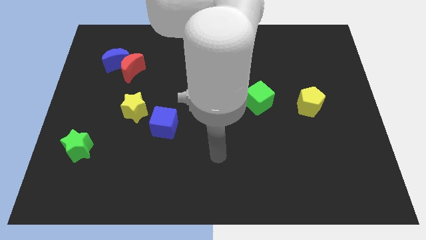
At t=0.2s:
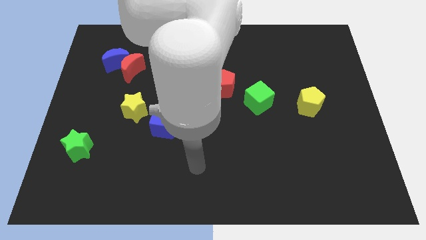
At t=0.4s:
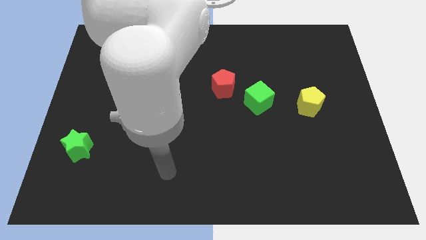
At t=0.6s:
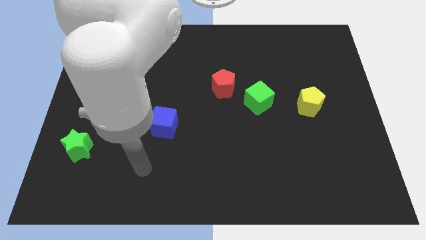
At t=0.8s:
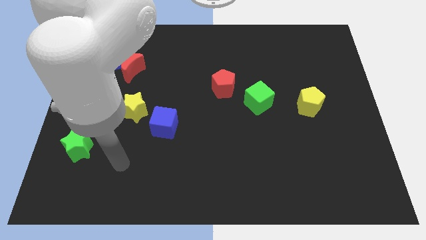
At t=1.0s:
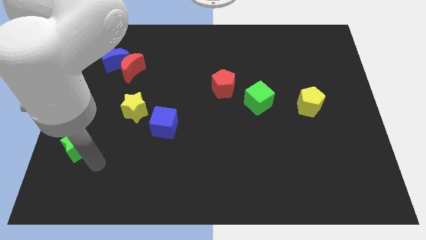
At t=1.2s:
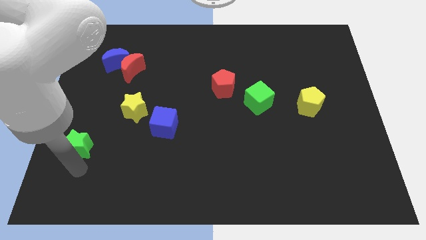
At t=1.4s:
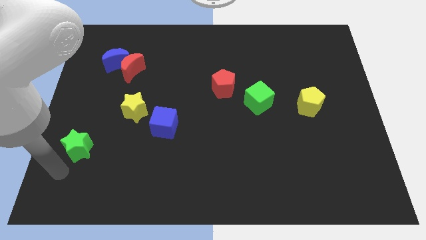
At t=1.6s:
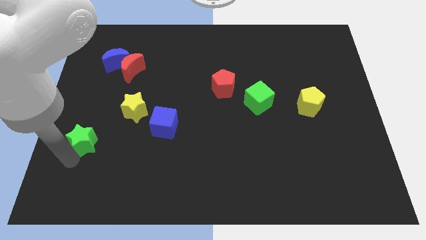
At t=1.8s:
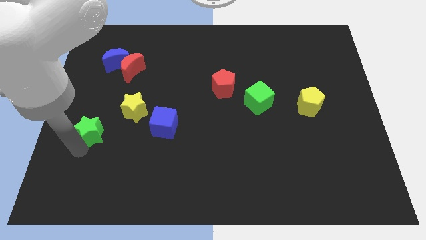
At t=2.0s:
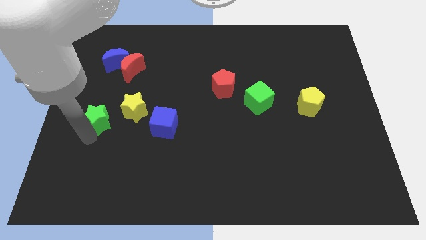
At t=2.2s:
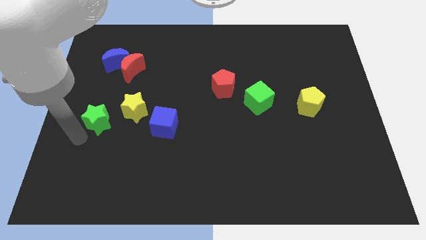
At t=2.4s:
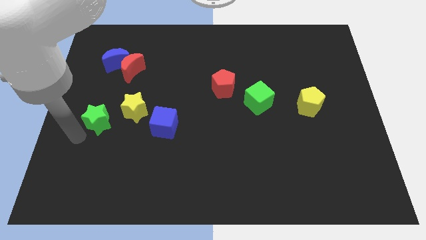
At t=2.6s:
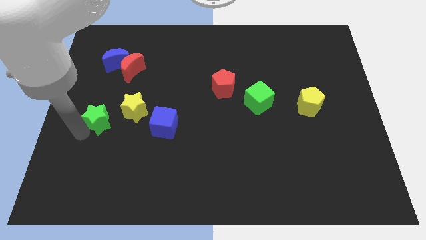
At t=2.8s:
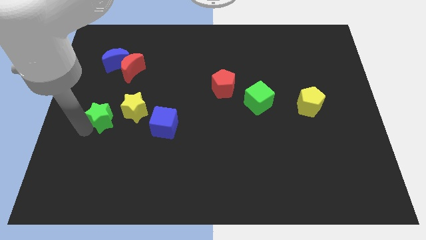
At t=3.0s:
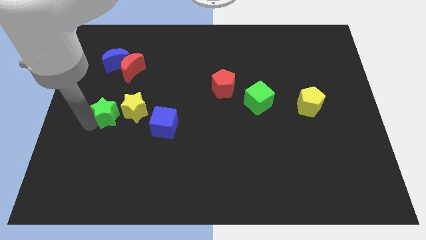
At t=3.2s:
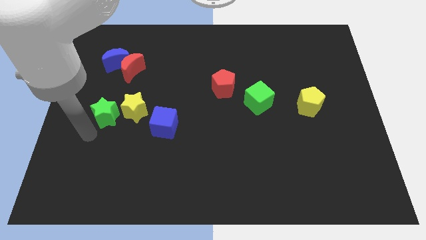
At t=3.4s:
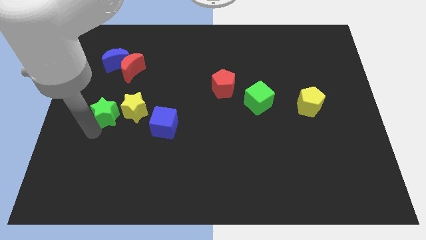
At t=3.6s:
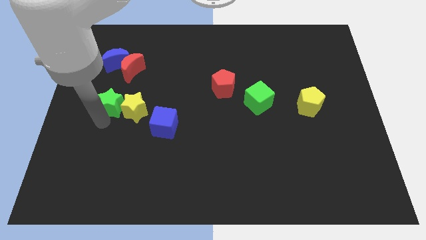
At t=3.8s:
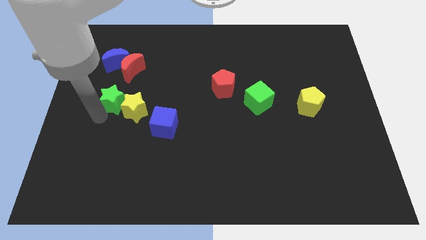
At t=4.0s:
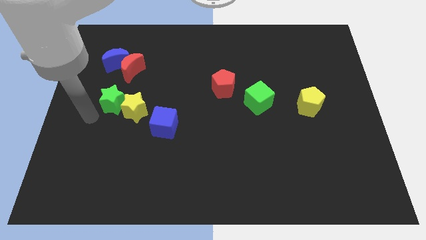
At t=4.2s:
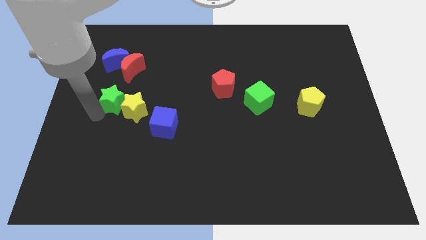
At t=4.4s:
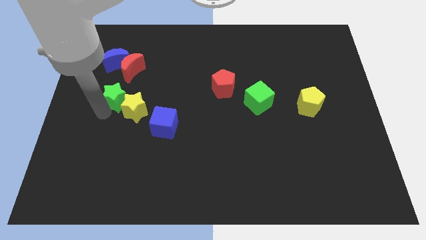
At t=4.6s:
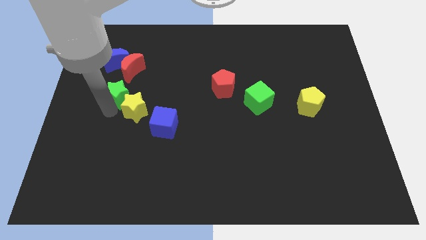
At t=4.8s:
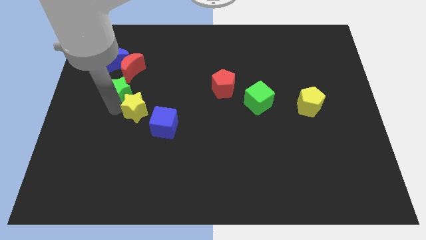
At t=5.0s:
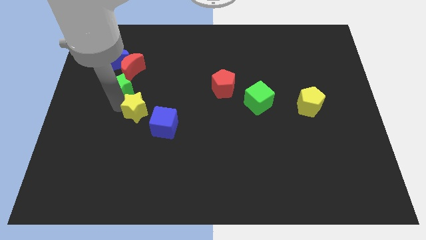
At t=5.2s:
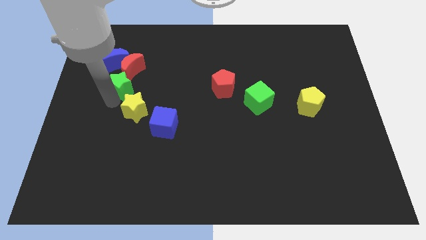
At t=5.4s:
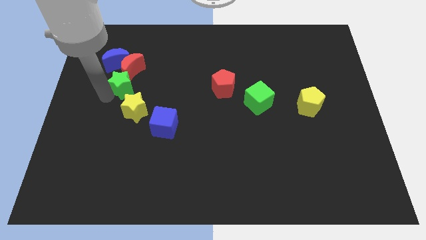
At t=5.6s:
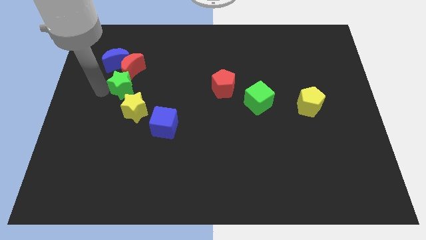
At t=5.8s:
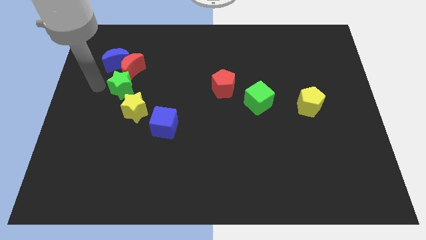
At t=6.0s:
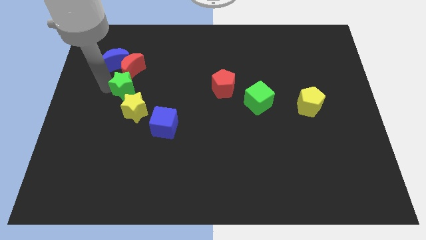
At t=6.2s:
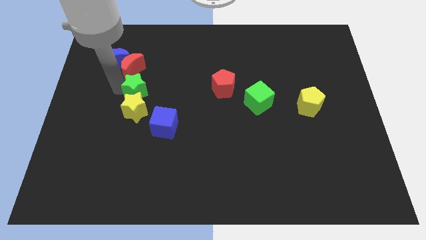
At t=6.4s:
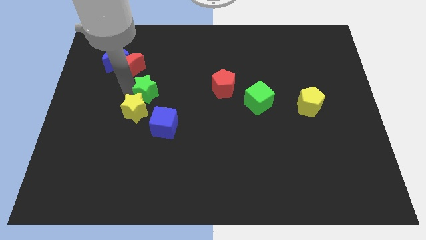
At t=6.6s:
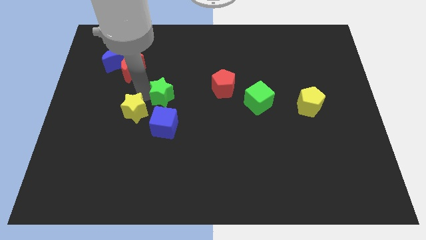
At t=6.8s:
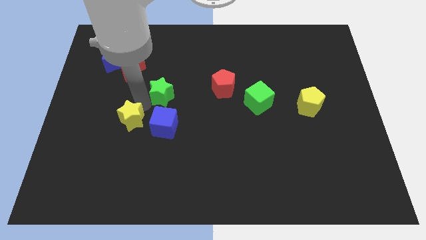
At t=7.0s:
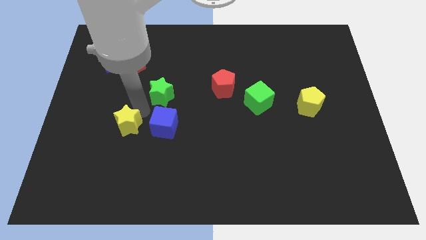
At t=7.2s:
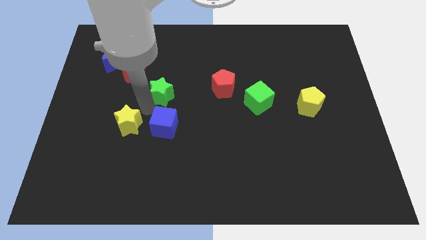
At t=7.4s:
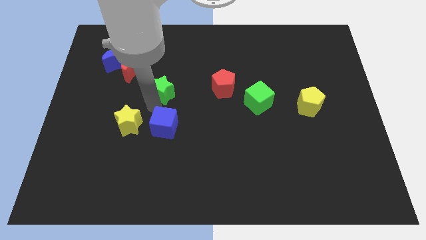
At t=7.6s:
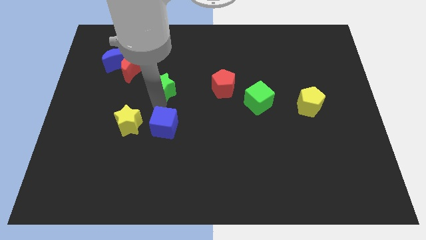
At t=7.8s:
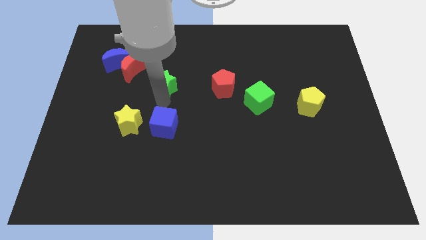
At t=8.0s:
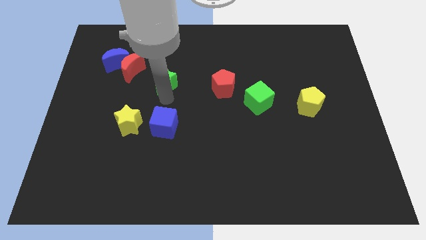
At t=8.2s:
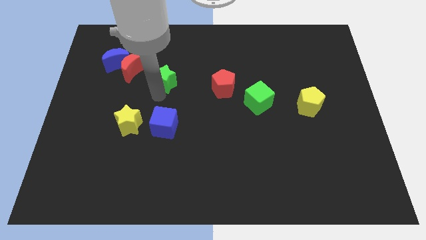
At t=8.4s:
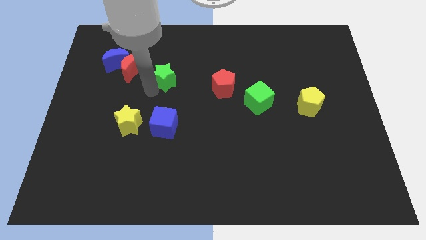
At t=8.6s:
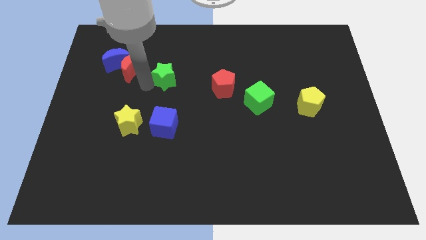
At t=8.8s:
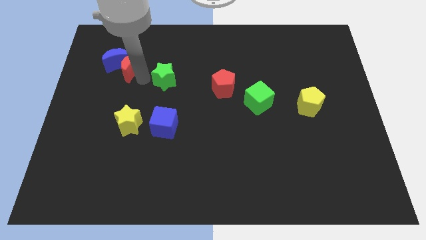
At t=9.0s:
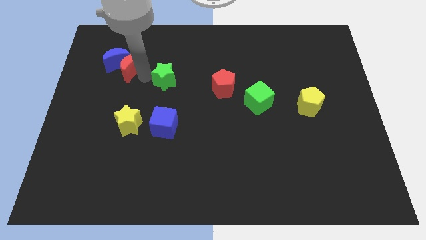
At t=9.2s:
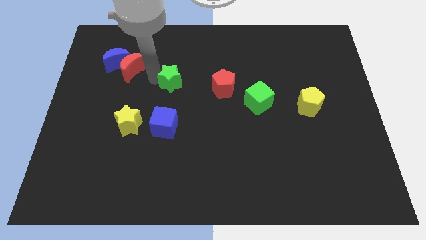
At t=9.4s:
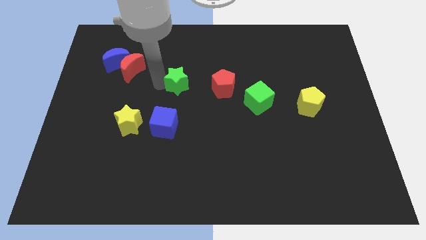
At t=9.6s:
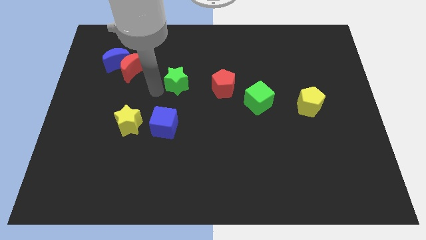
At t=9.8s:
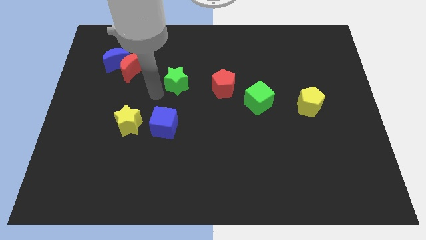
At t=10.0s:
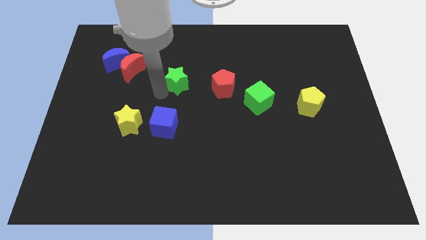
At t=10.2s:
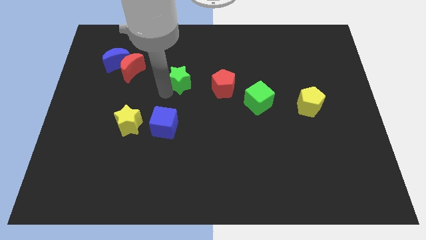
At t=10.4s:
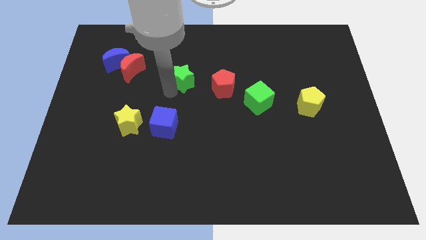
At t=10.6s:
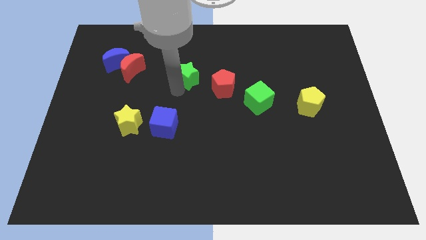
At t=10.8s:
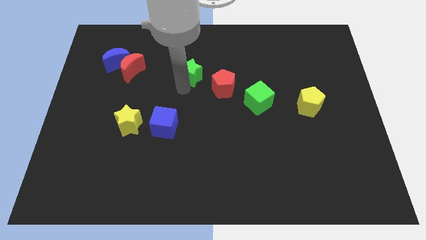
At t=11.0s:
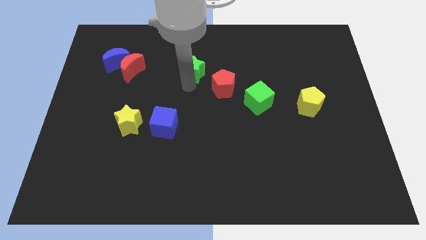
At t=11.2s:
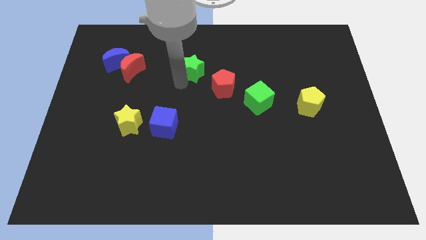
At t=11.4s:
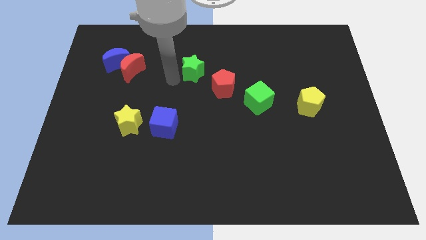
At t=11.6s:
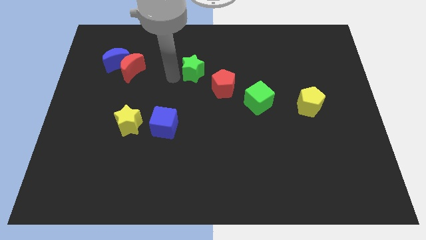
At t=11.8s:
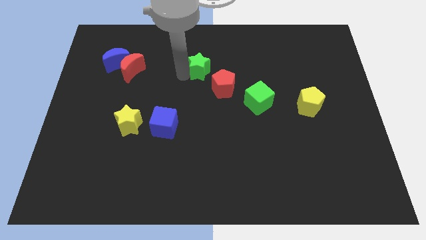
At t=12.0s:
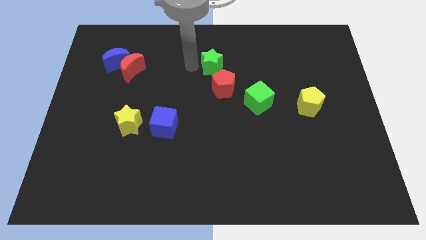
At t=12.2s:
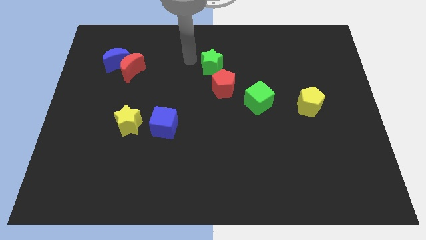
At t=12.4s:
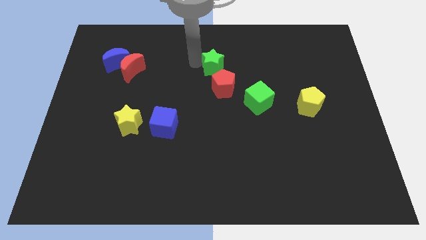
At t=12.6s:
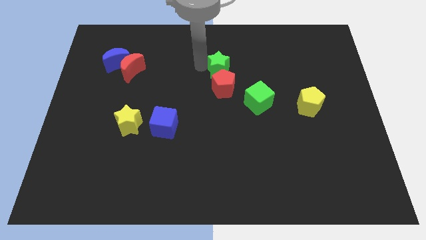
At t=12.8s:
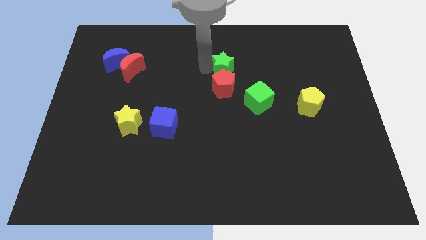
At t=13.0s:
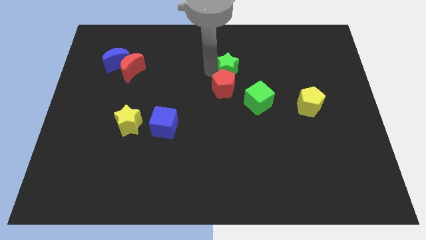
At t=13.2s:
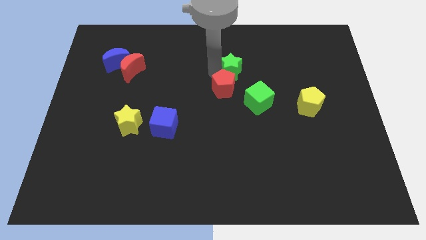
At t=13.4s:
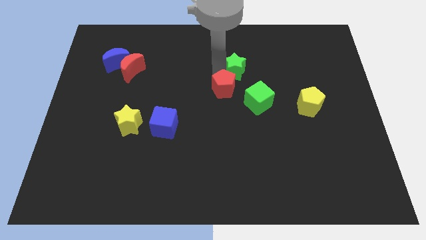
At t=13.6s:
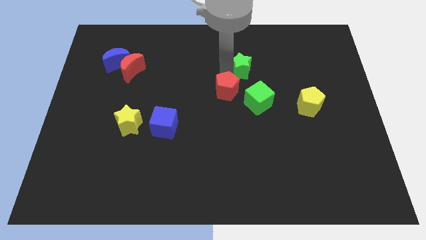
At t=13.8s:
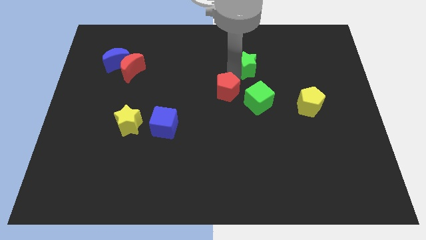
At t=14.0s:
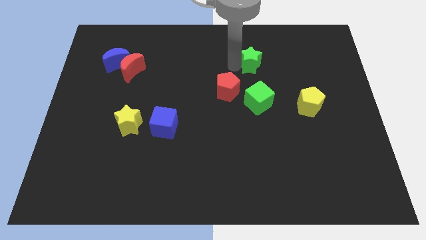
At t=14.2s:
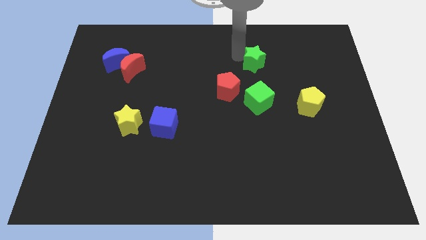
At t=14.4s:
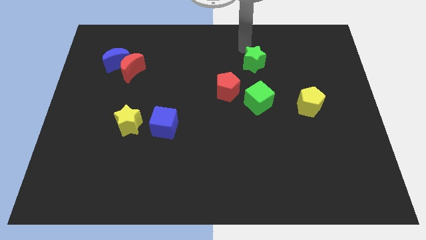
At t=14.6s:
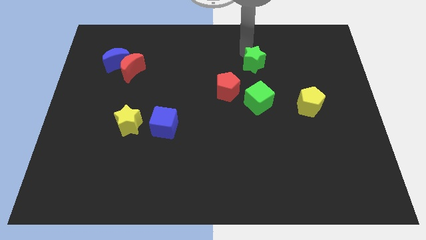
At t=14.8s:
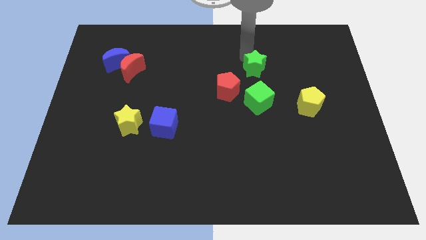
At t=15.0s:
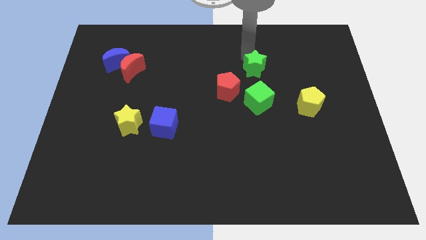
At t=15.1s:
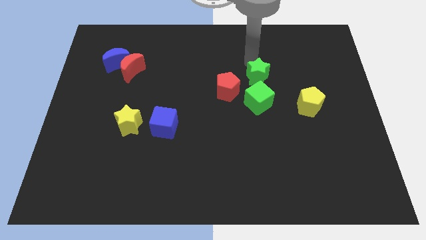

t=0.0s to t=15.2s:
slide the green star to the right side of the red pentagon
